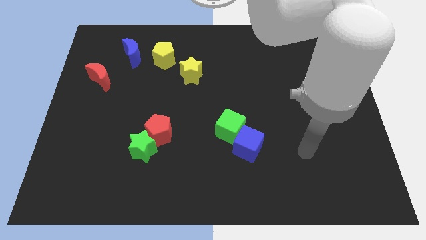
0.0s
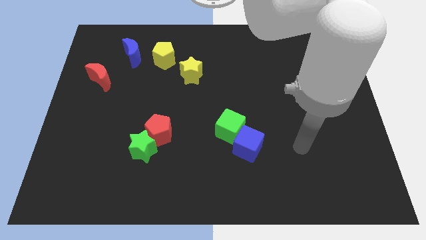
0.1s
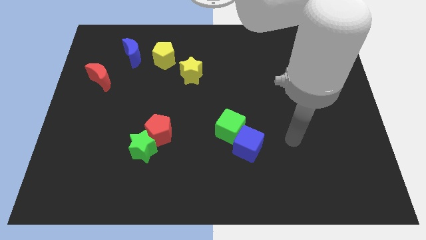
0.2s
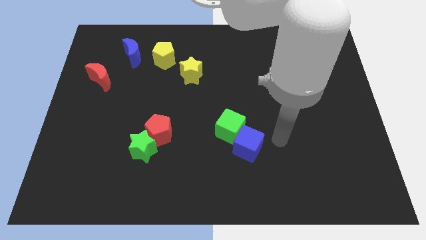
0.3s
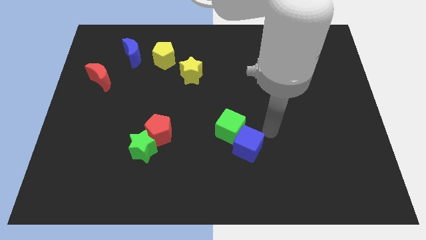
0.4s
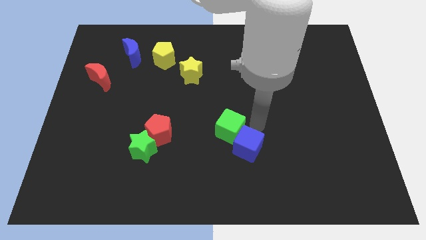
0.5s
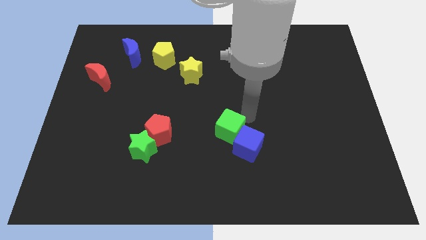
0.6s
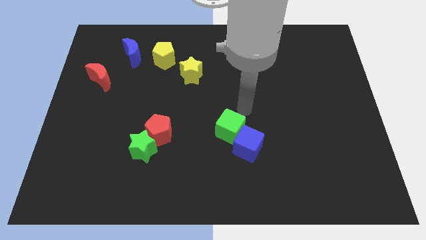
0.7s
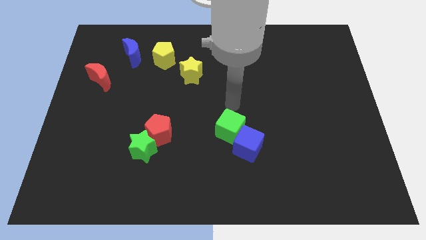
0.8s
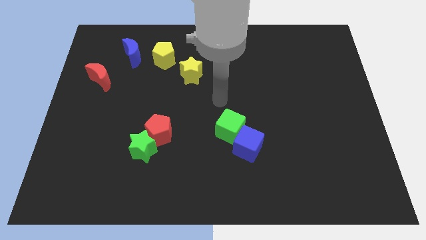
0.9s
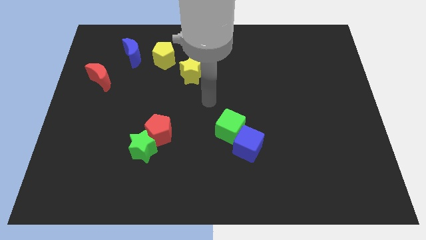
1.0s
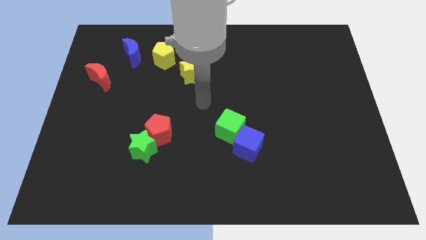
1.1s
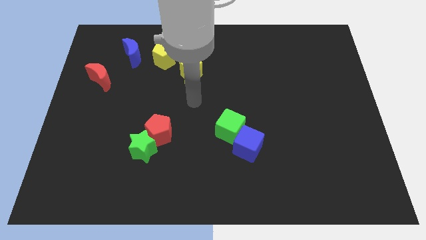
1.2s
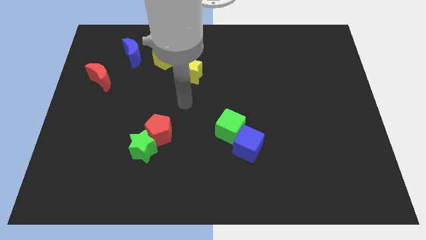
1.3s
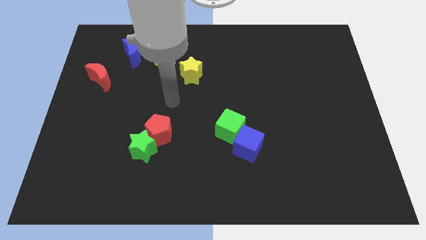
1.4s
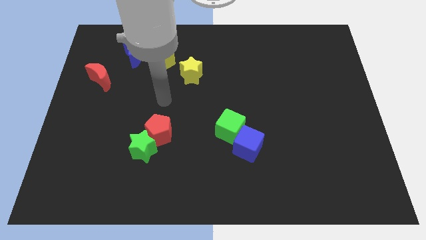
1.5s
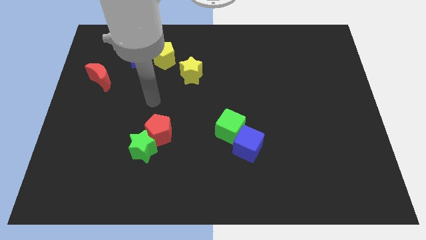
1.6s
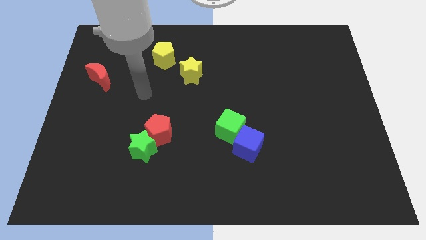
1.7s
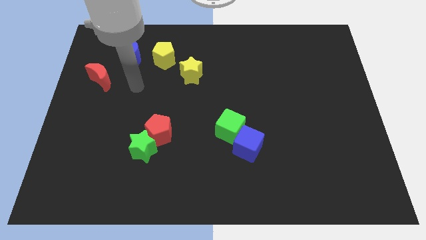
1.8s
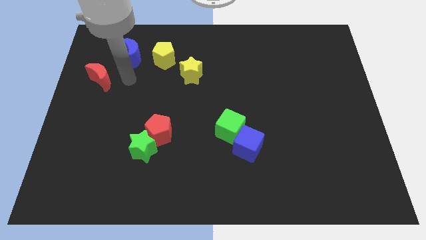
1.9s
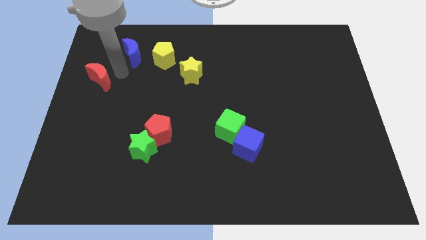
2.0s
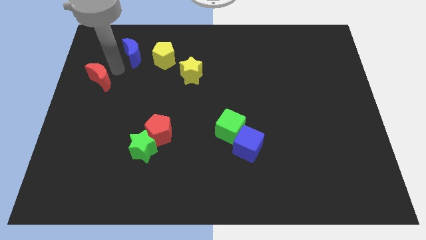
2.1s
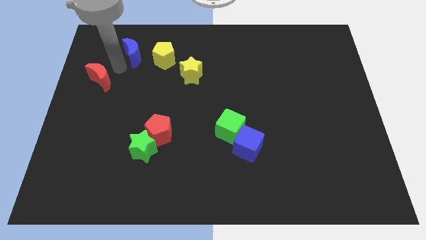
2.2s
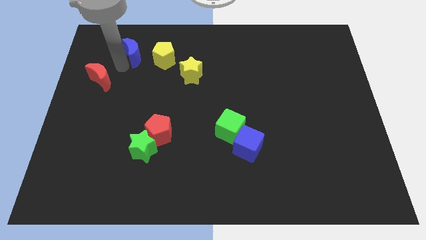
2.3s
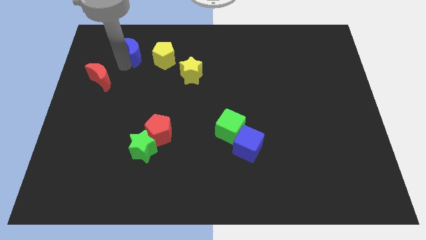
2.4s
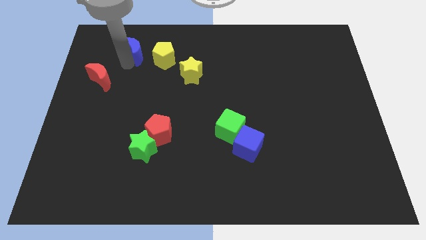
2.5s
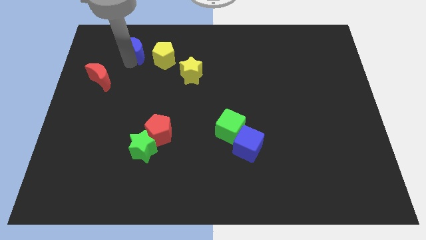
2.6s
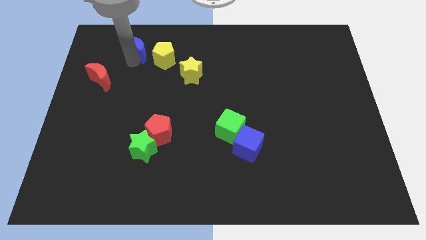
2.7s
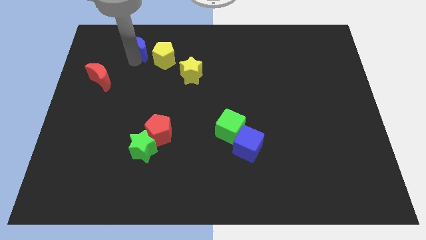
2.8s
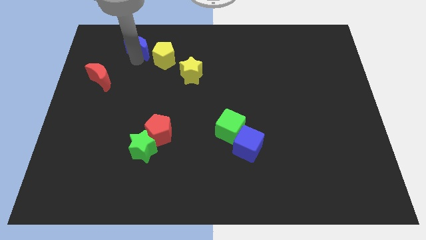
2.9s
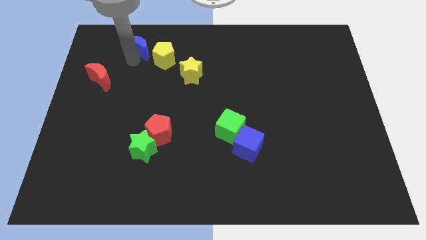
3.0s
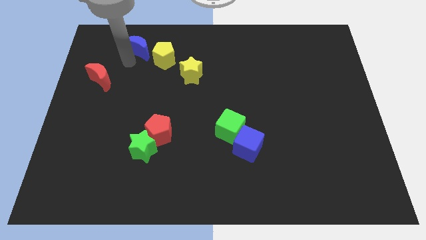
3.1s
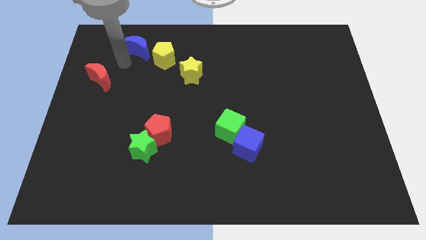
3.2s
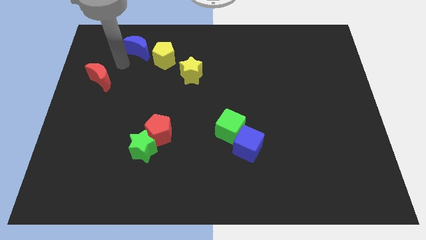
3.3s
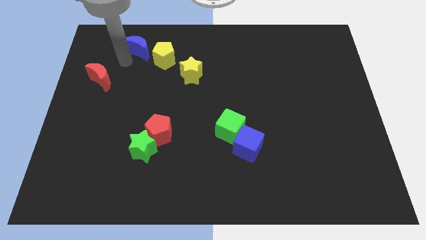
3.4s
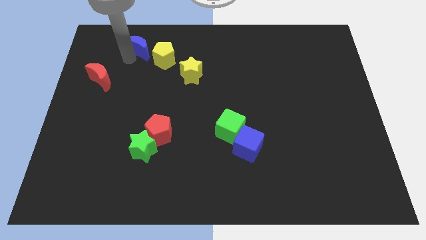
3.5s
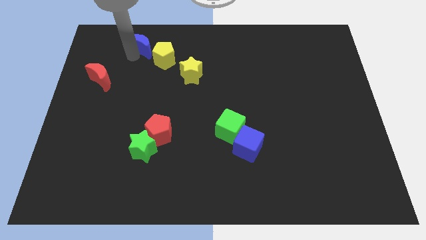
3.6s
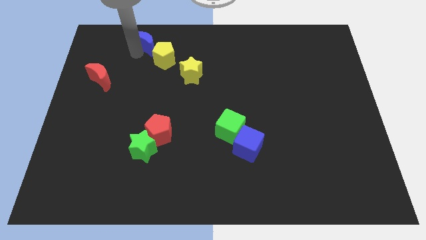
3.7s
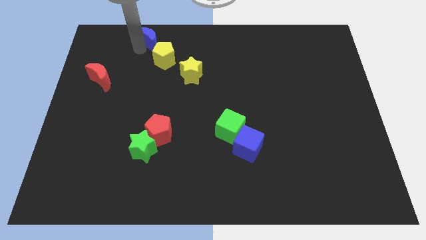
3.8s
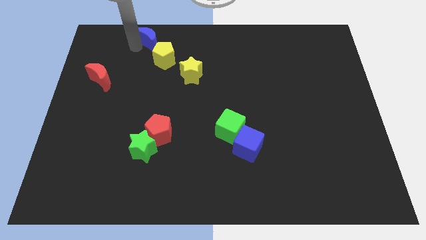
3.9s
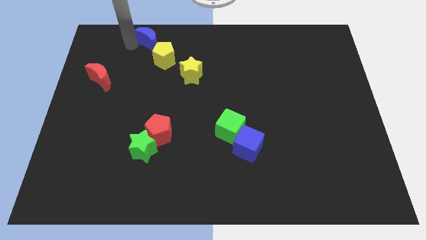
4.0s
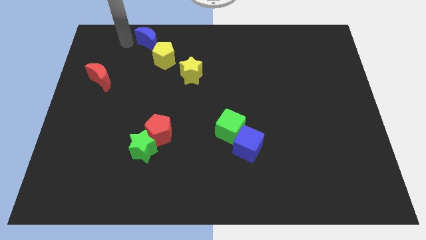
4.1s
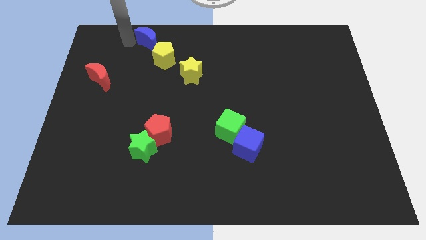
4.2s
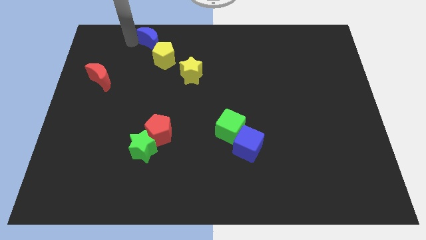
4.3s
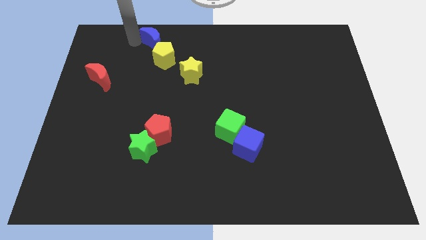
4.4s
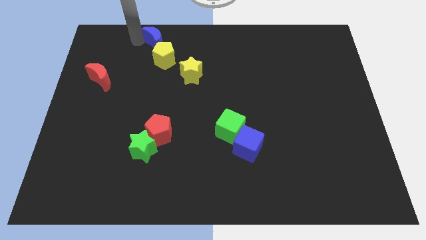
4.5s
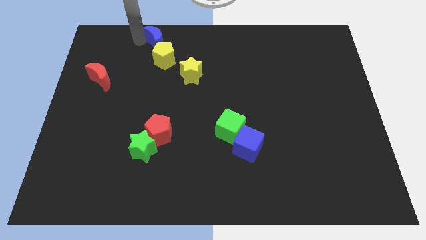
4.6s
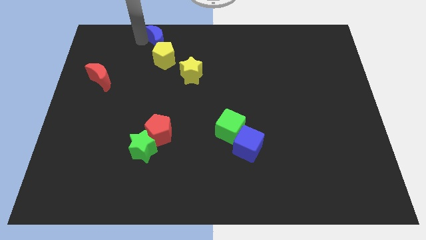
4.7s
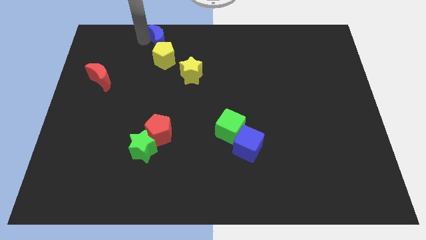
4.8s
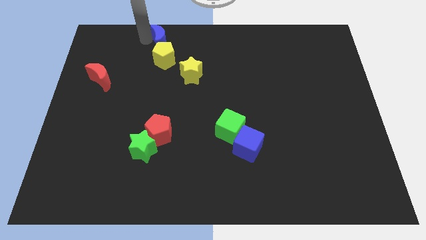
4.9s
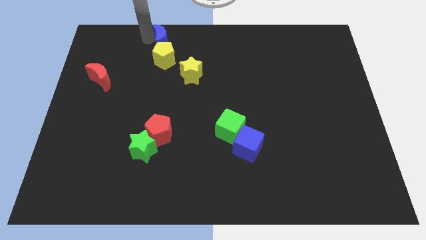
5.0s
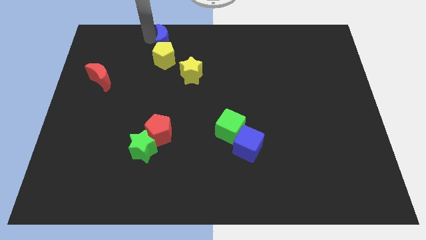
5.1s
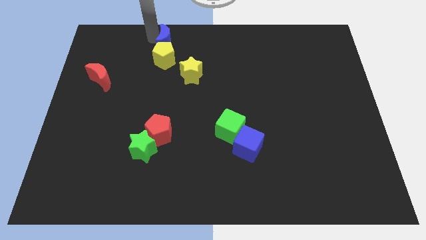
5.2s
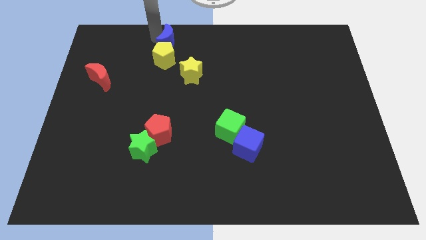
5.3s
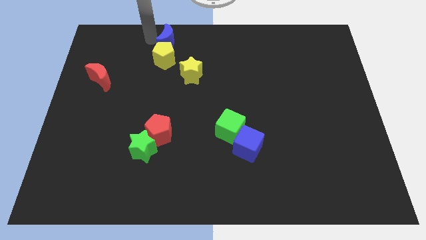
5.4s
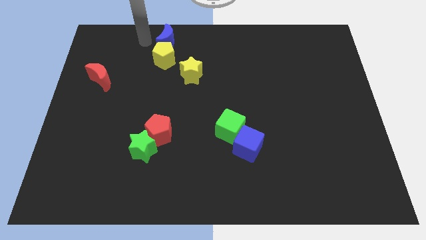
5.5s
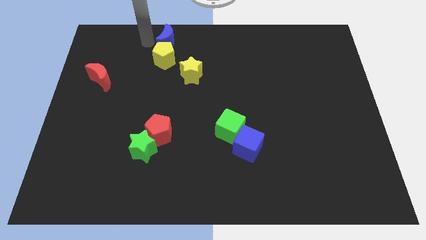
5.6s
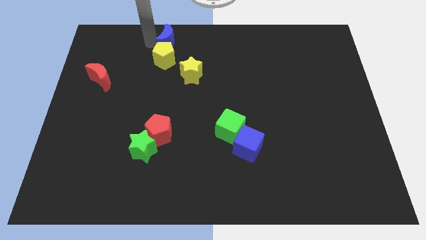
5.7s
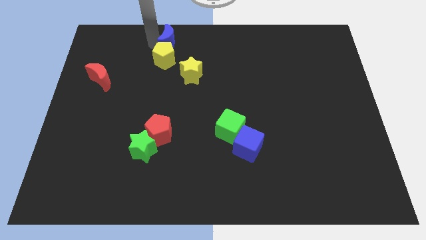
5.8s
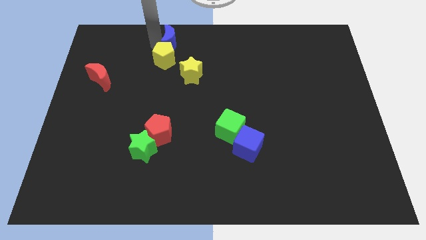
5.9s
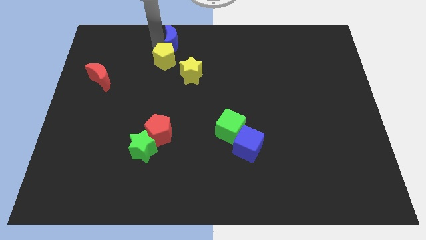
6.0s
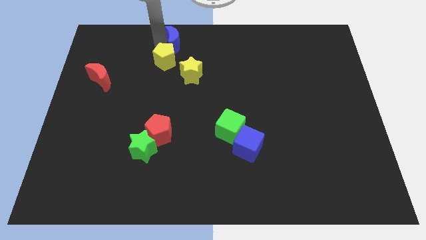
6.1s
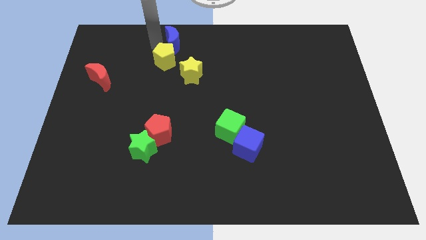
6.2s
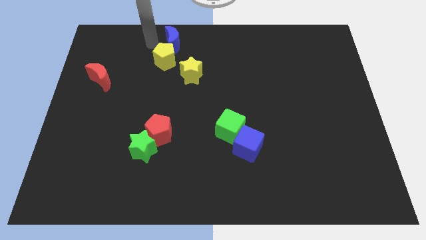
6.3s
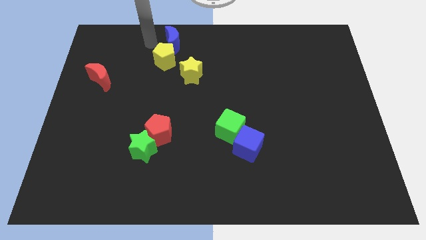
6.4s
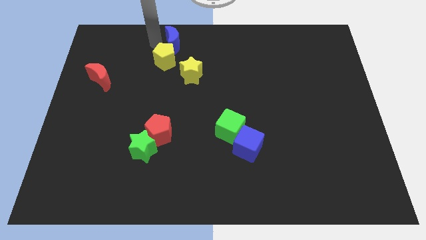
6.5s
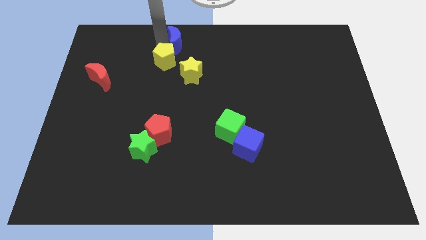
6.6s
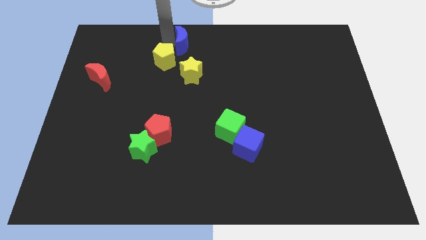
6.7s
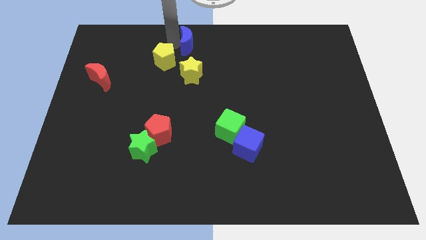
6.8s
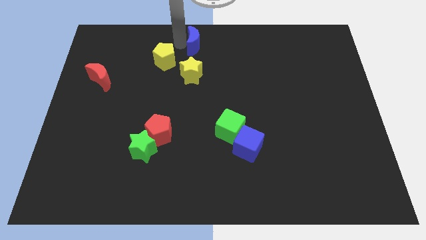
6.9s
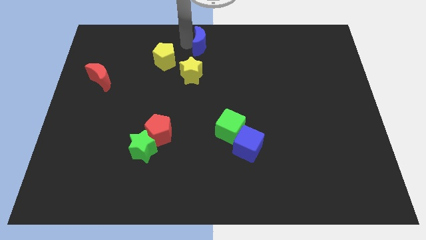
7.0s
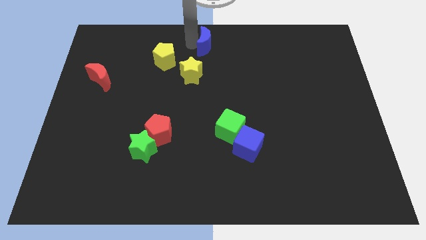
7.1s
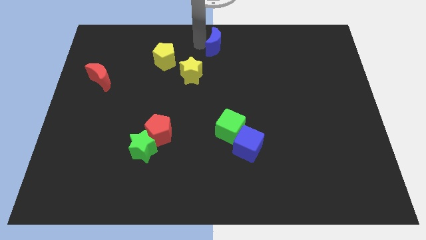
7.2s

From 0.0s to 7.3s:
push the blue moon to the right

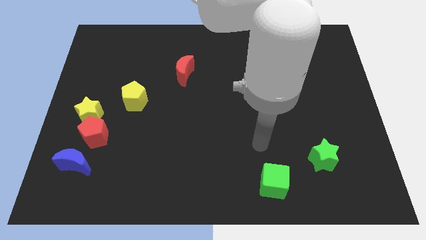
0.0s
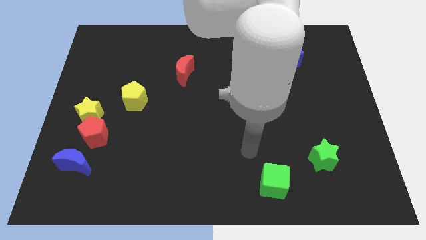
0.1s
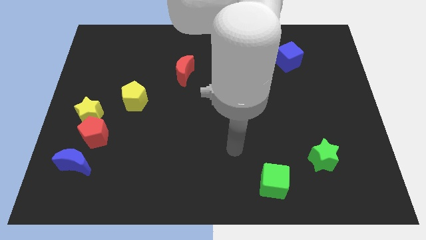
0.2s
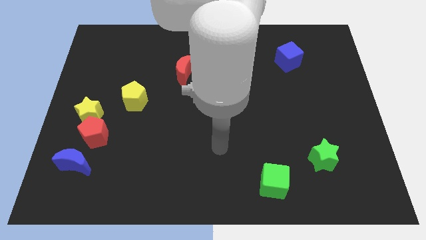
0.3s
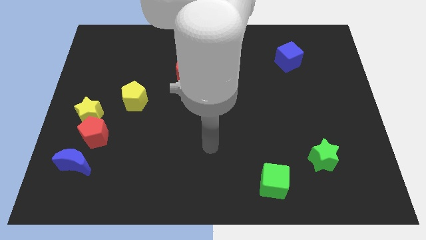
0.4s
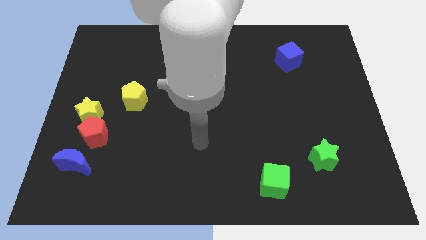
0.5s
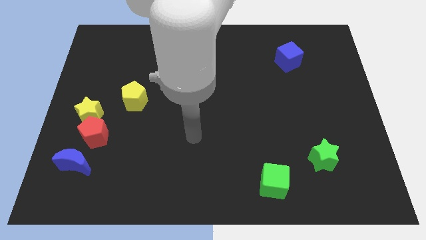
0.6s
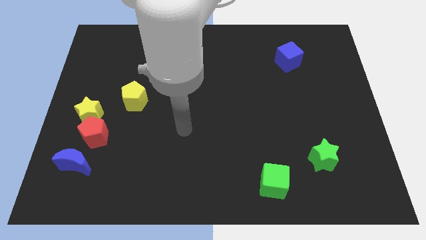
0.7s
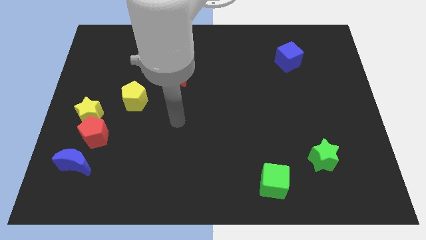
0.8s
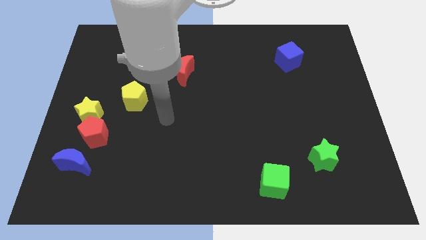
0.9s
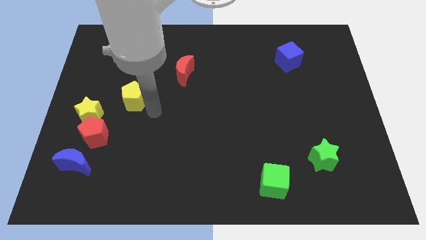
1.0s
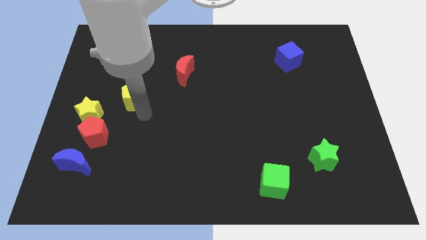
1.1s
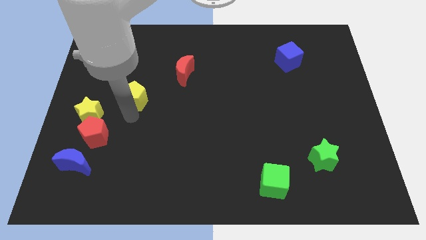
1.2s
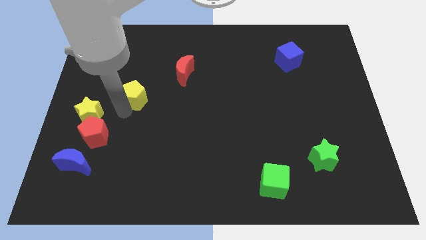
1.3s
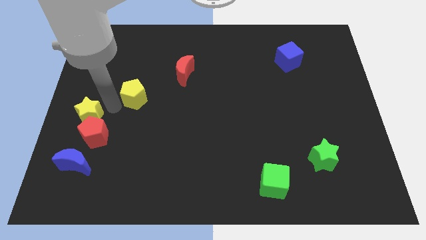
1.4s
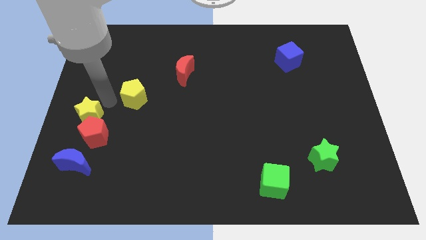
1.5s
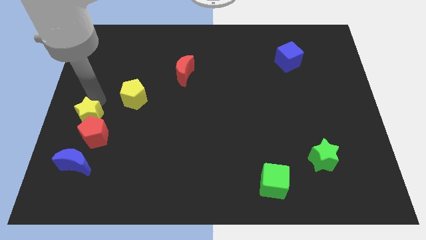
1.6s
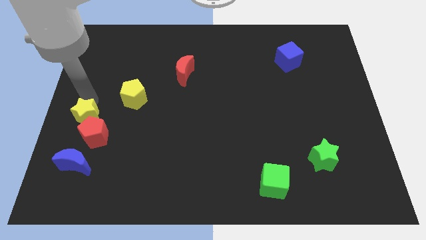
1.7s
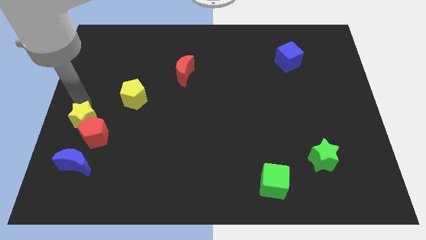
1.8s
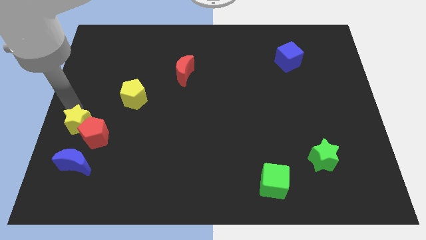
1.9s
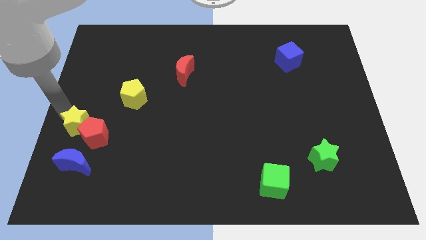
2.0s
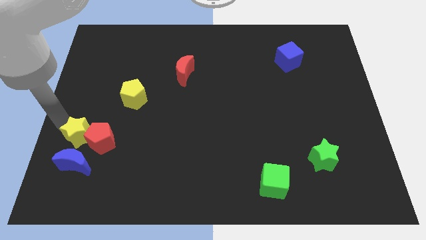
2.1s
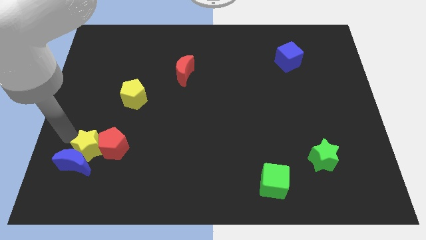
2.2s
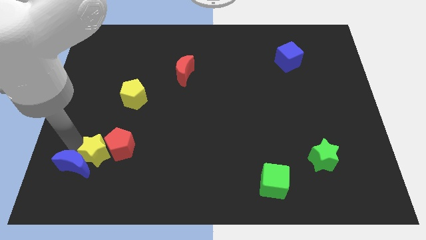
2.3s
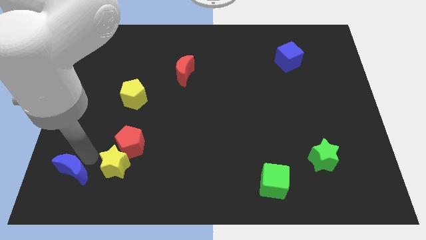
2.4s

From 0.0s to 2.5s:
move the red pentagon to the right a little bit
